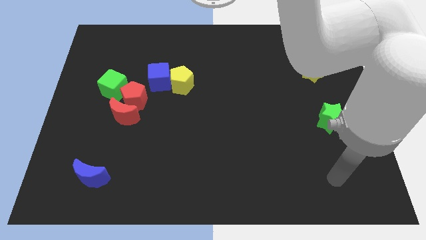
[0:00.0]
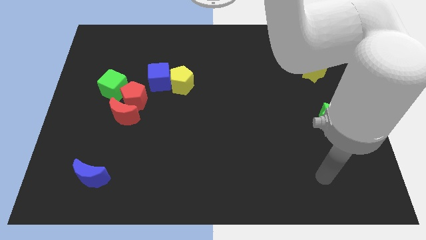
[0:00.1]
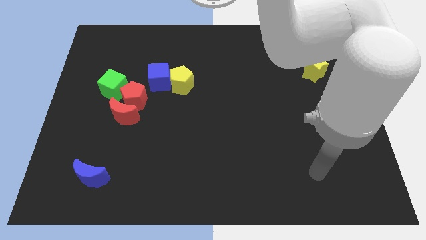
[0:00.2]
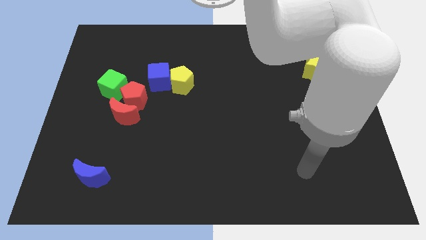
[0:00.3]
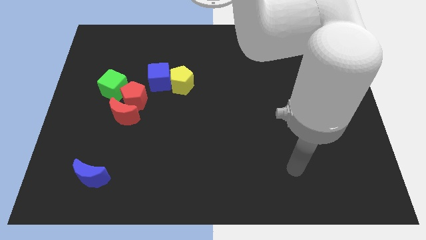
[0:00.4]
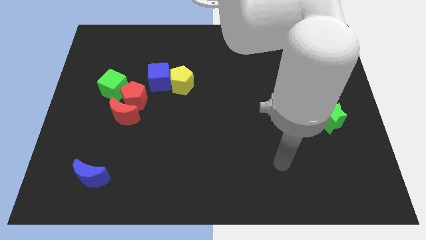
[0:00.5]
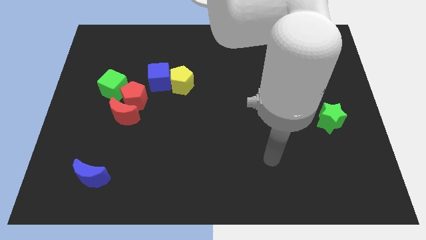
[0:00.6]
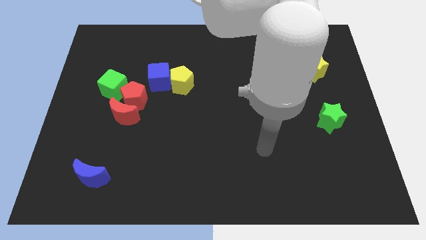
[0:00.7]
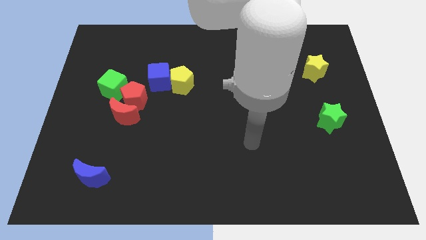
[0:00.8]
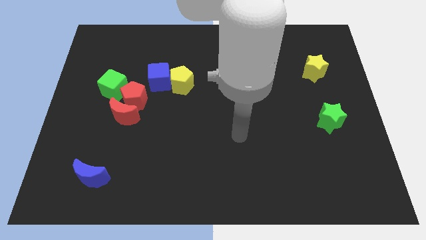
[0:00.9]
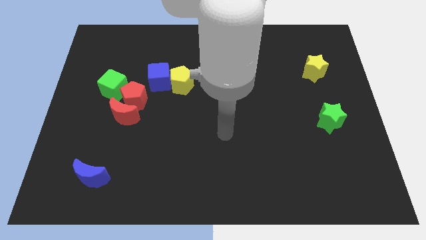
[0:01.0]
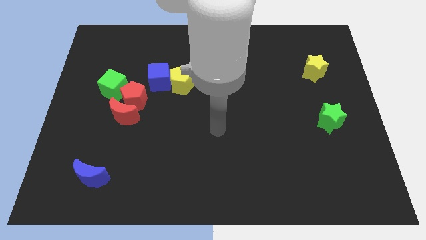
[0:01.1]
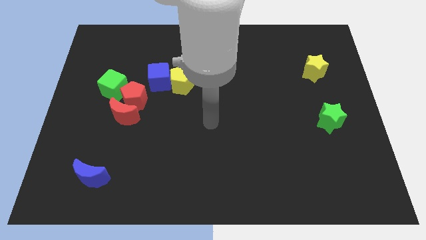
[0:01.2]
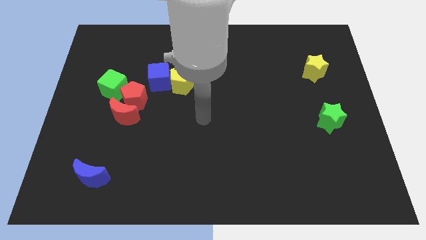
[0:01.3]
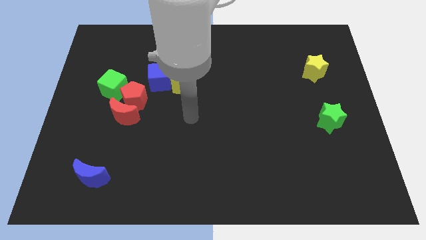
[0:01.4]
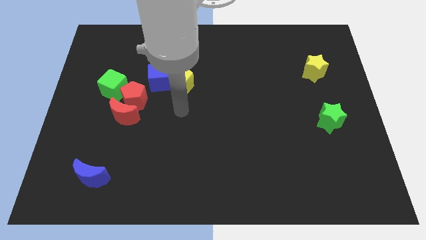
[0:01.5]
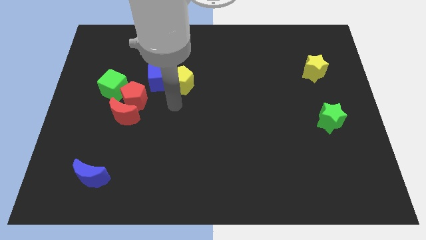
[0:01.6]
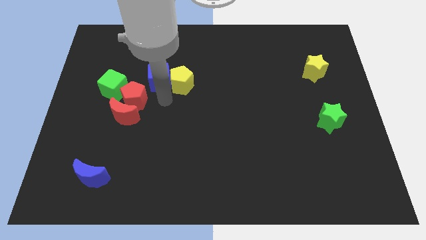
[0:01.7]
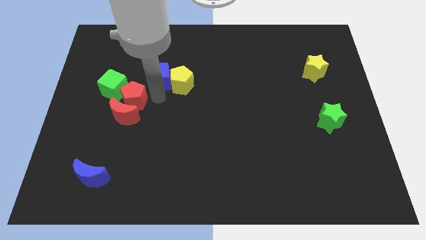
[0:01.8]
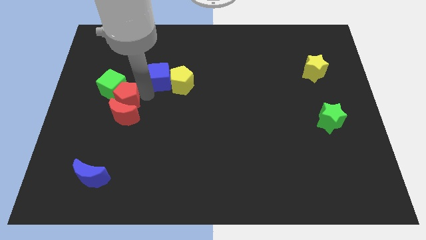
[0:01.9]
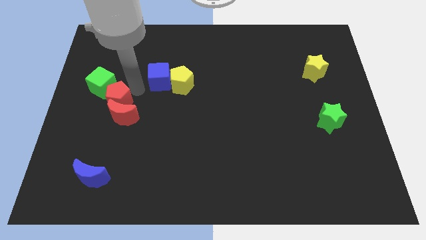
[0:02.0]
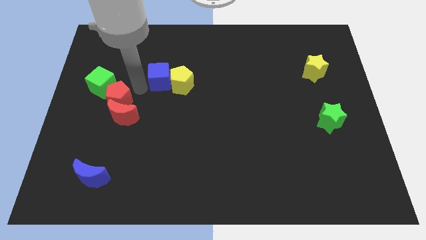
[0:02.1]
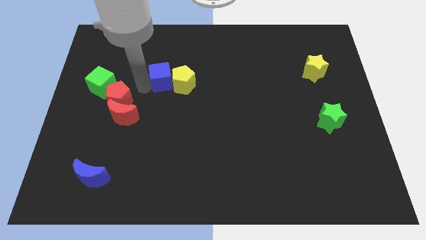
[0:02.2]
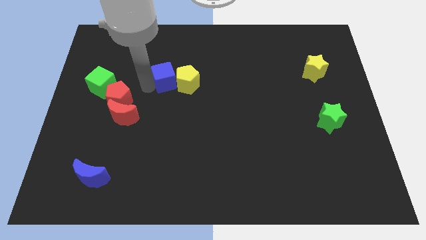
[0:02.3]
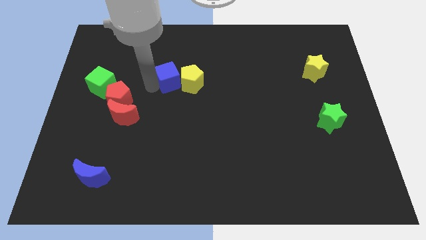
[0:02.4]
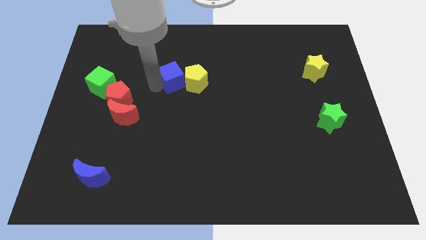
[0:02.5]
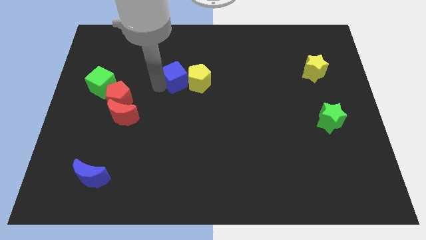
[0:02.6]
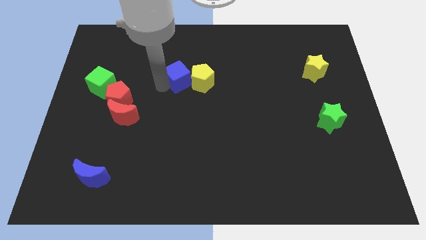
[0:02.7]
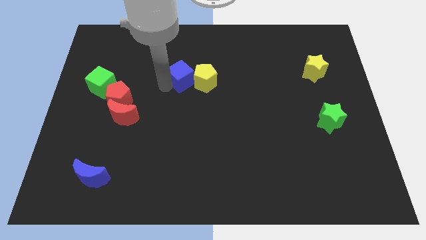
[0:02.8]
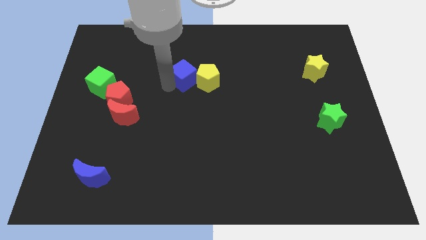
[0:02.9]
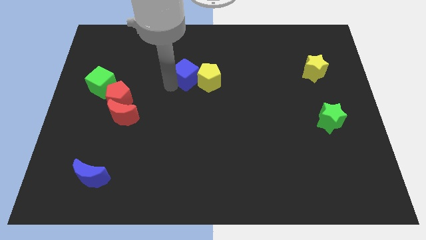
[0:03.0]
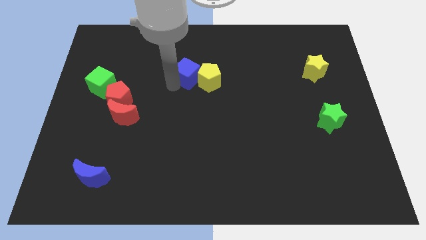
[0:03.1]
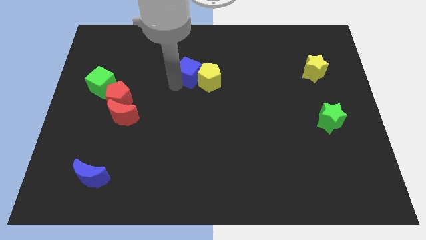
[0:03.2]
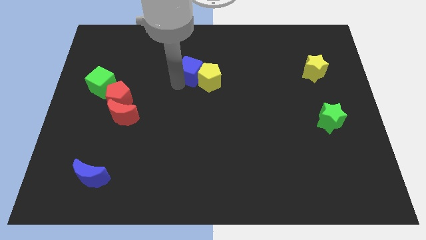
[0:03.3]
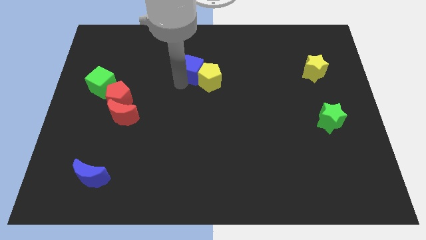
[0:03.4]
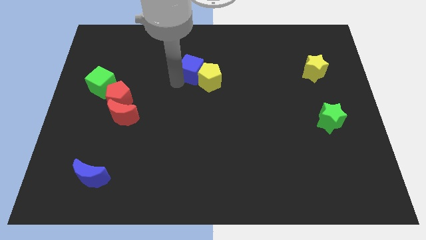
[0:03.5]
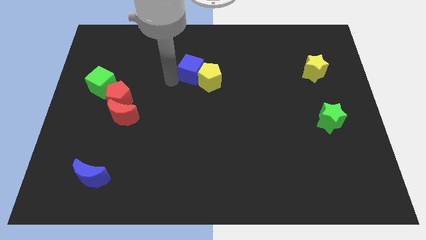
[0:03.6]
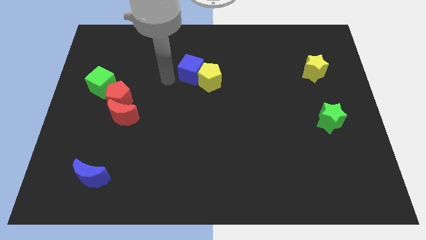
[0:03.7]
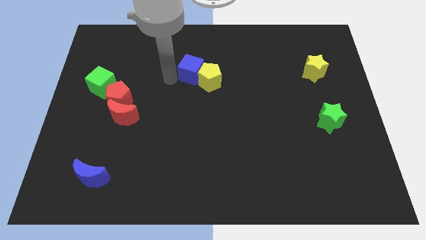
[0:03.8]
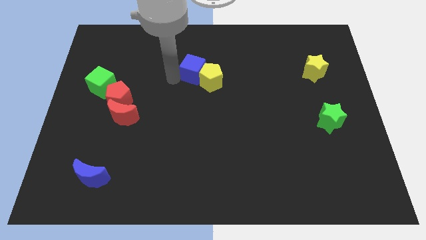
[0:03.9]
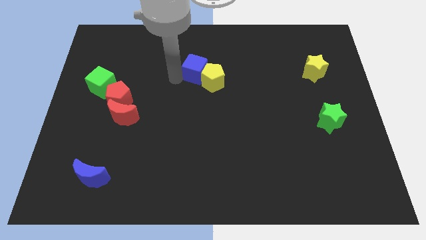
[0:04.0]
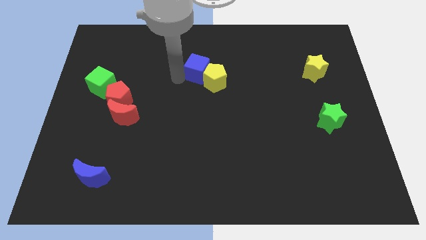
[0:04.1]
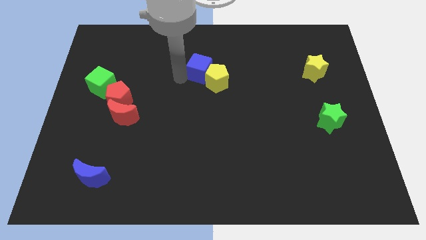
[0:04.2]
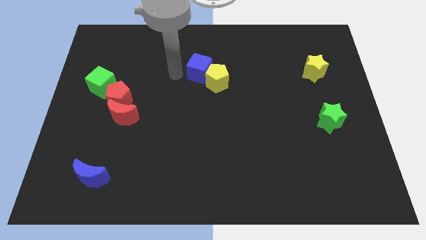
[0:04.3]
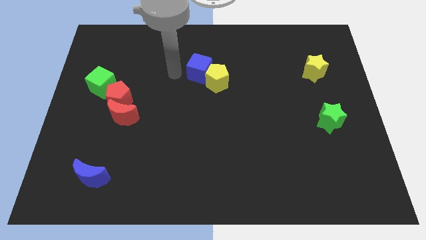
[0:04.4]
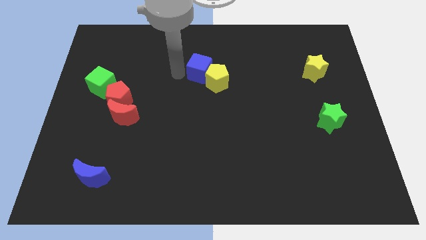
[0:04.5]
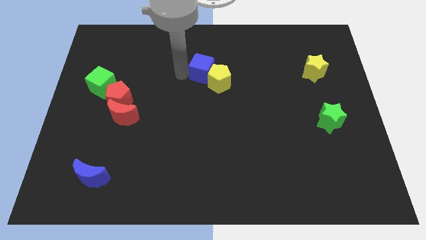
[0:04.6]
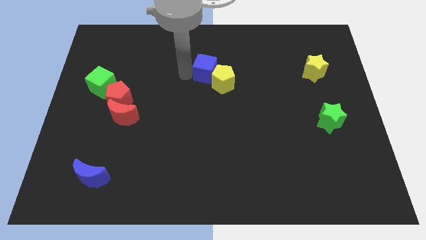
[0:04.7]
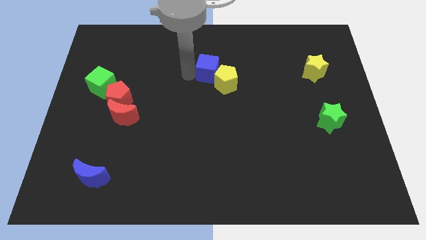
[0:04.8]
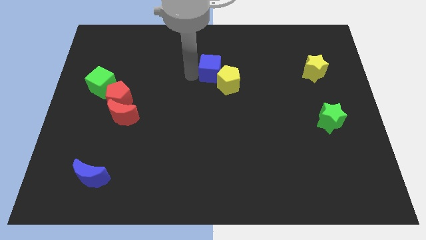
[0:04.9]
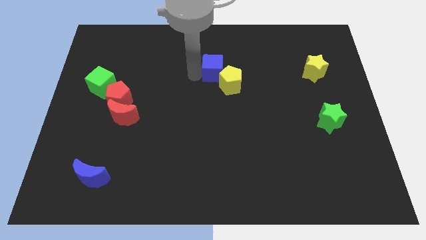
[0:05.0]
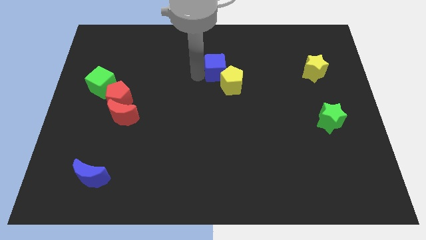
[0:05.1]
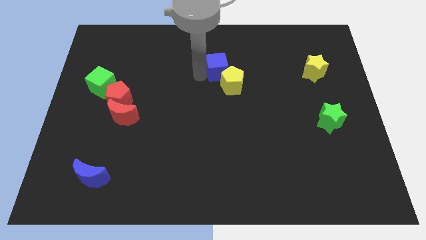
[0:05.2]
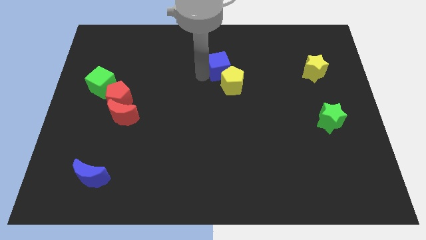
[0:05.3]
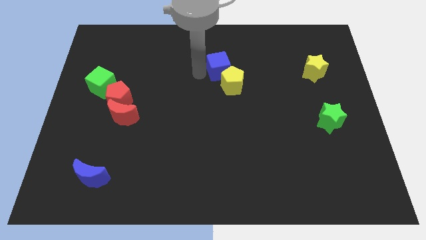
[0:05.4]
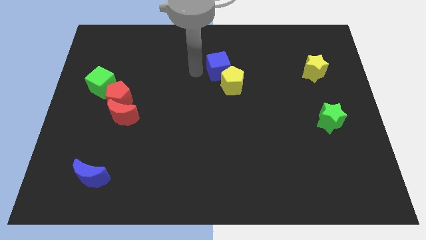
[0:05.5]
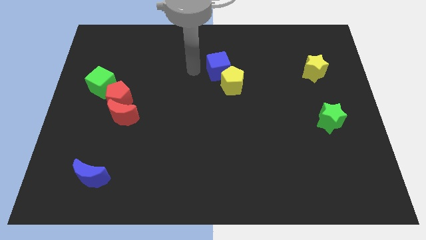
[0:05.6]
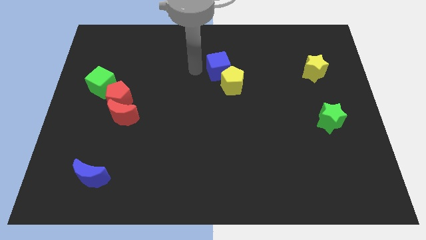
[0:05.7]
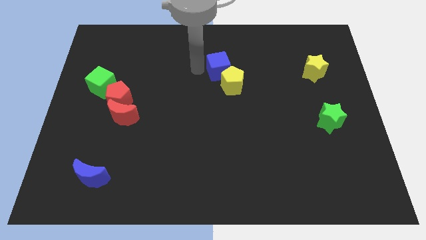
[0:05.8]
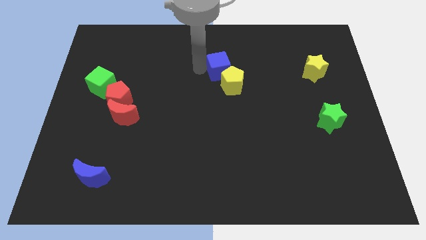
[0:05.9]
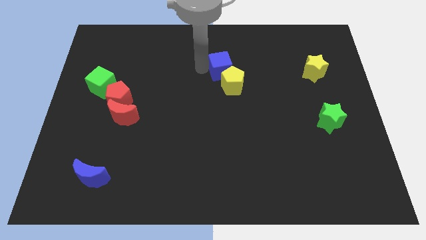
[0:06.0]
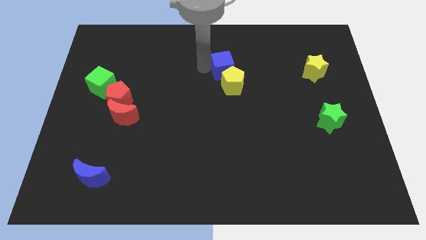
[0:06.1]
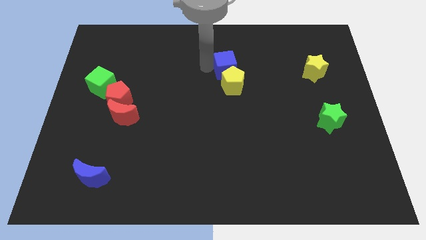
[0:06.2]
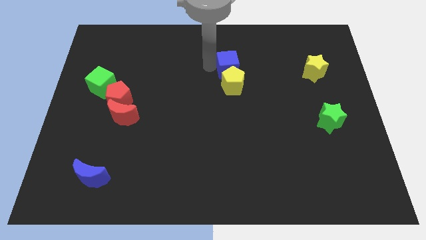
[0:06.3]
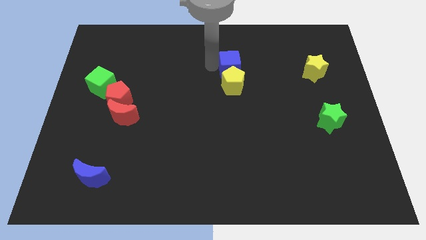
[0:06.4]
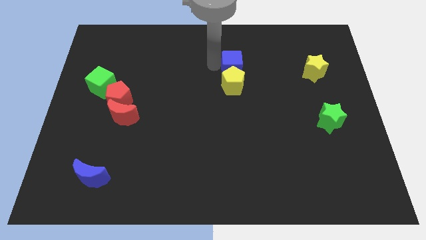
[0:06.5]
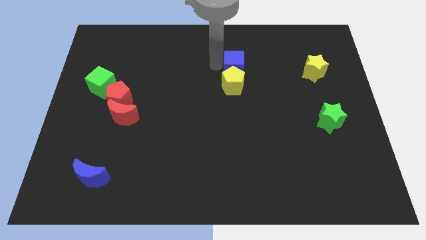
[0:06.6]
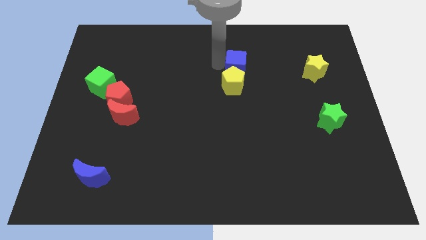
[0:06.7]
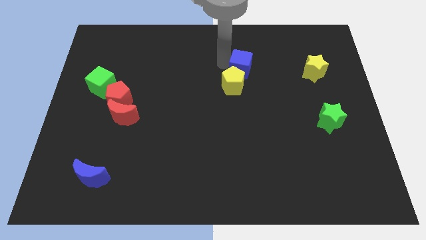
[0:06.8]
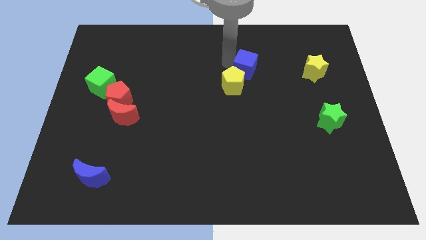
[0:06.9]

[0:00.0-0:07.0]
slide the blue cube right

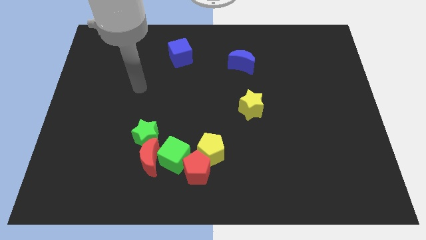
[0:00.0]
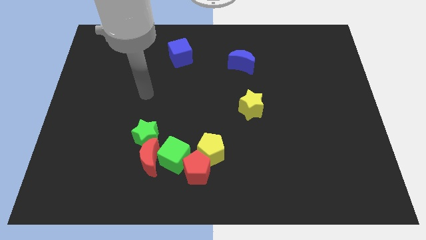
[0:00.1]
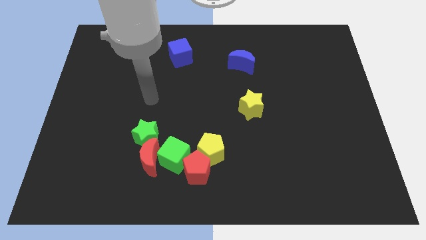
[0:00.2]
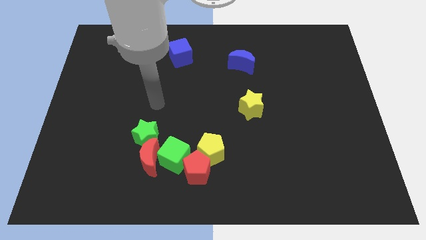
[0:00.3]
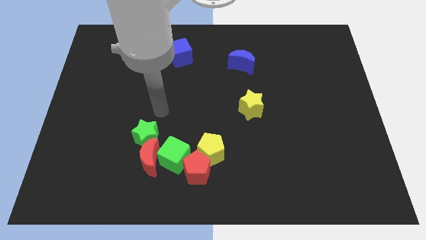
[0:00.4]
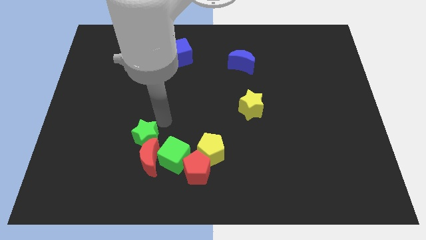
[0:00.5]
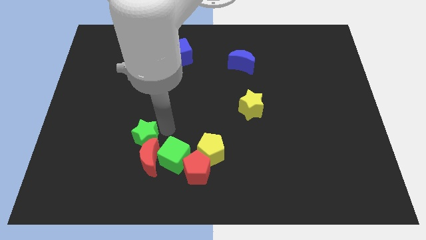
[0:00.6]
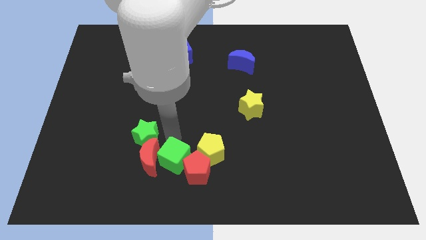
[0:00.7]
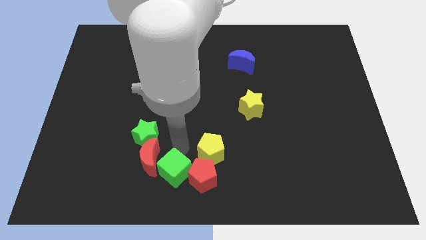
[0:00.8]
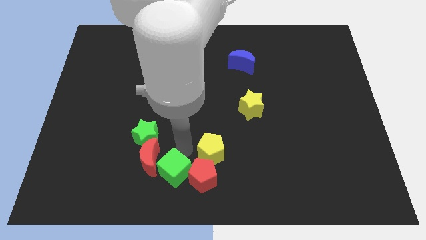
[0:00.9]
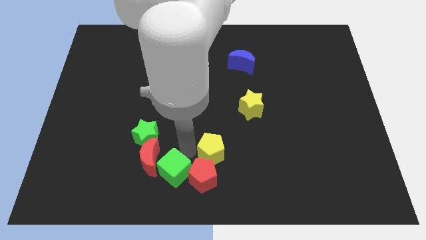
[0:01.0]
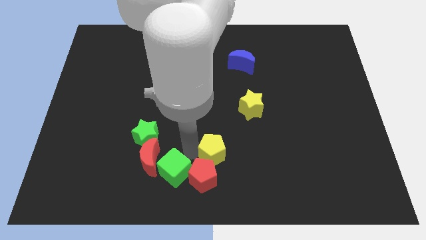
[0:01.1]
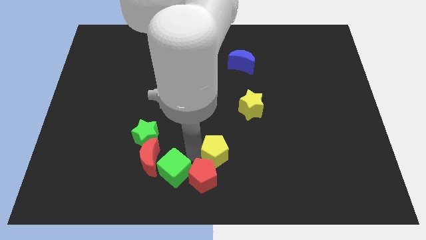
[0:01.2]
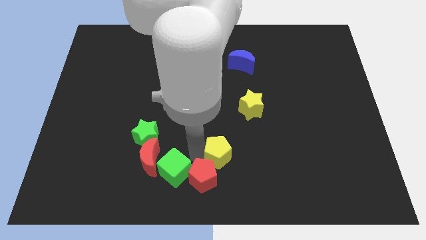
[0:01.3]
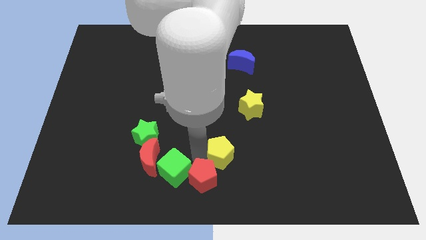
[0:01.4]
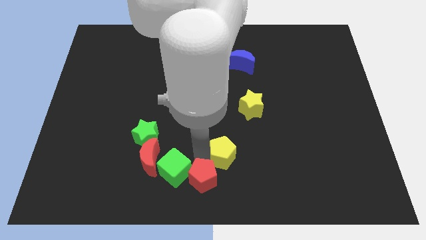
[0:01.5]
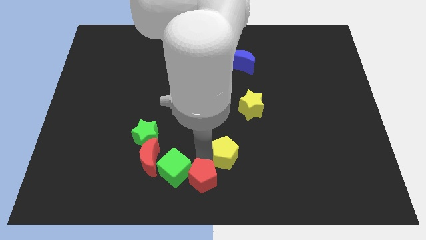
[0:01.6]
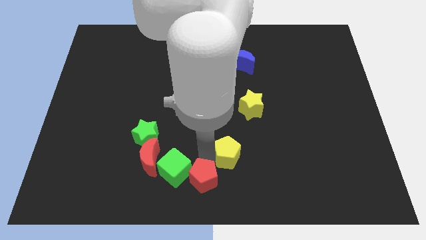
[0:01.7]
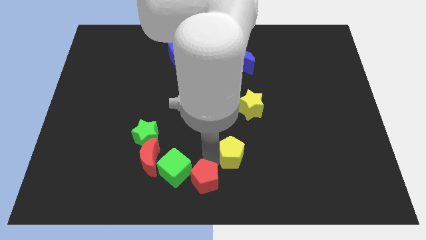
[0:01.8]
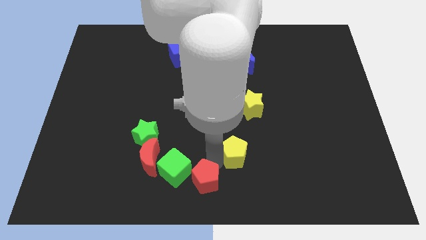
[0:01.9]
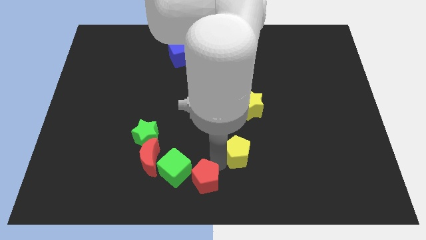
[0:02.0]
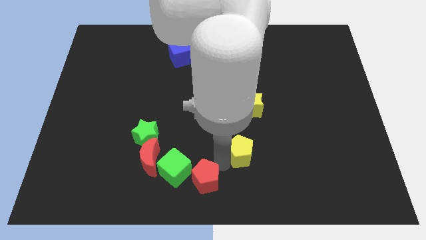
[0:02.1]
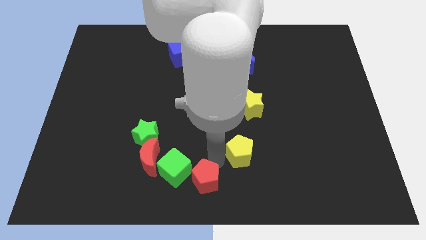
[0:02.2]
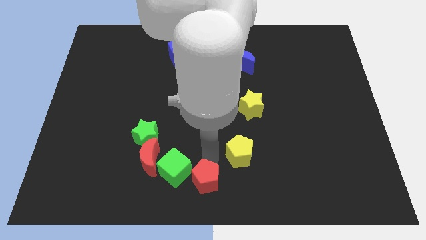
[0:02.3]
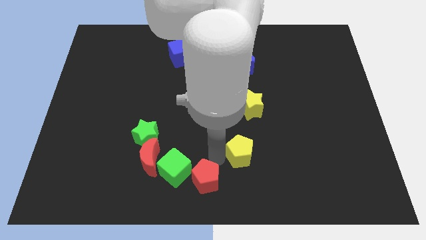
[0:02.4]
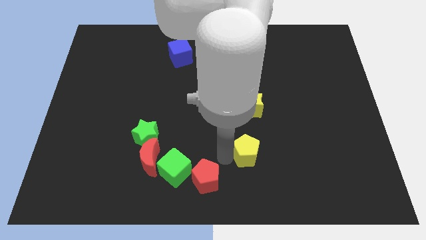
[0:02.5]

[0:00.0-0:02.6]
move the yellow pentagon somewhat right
